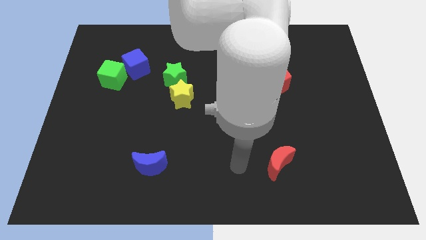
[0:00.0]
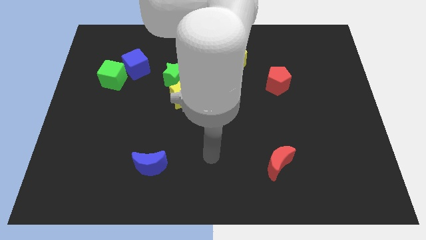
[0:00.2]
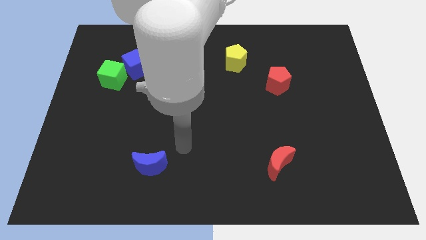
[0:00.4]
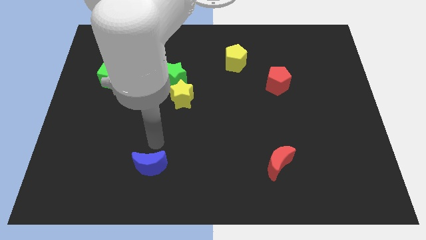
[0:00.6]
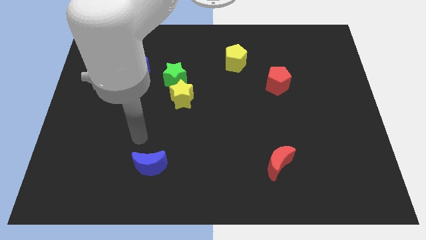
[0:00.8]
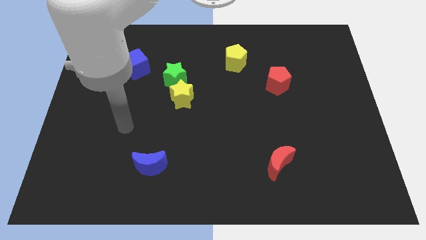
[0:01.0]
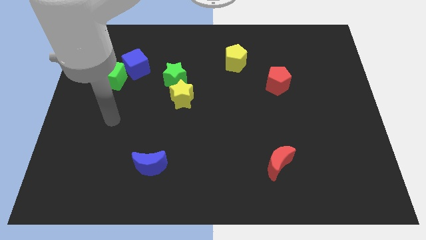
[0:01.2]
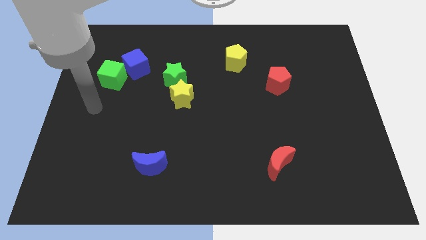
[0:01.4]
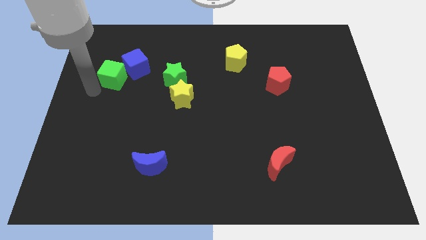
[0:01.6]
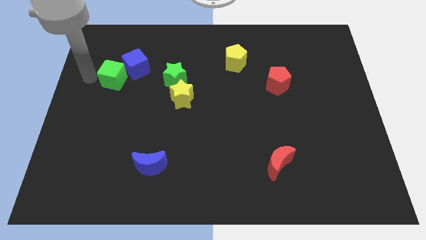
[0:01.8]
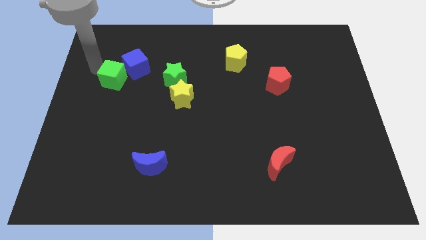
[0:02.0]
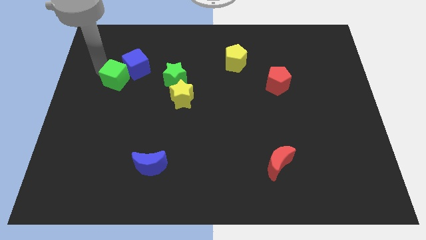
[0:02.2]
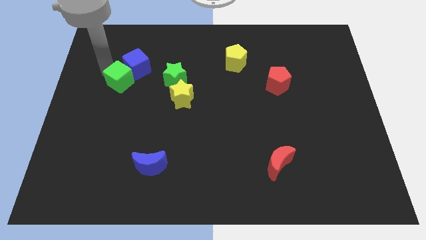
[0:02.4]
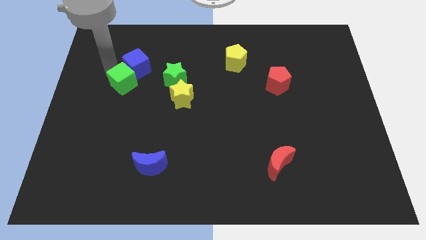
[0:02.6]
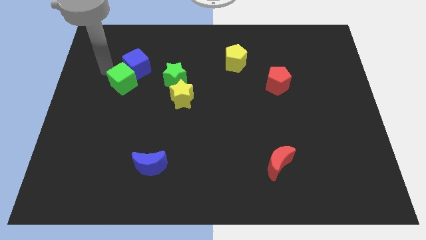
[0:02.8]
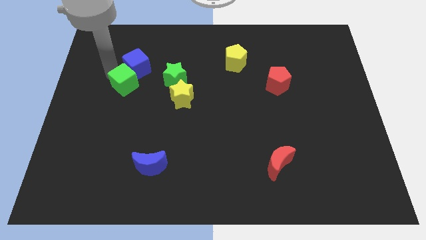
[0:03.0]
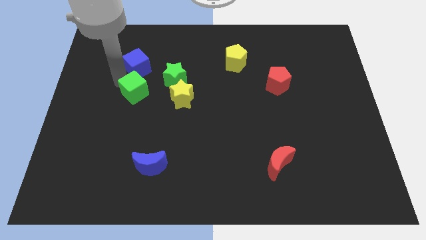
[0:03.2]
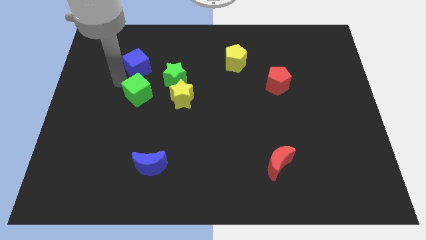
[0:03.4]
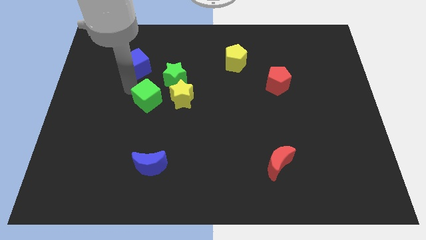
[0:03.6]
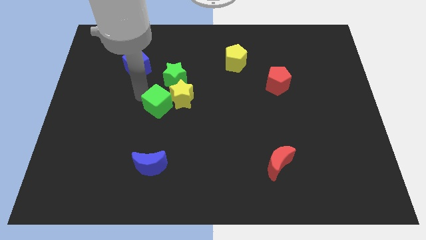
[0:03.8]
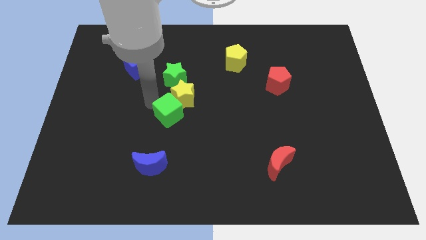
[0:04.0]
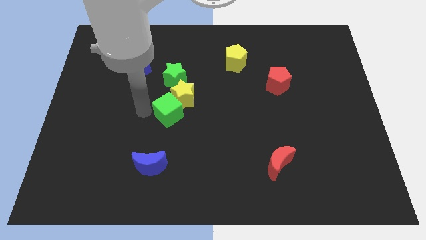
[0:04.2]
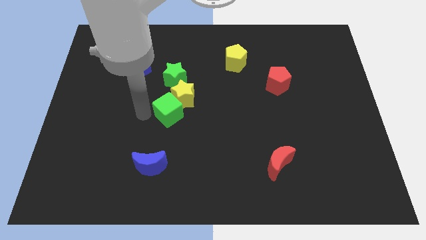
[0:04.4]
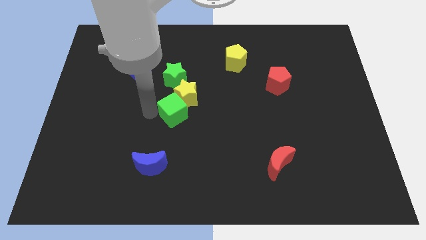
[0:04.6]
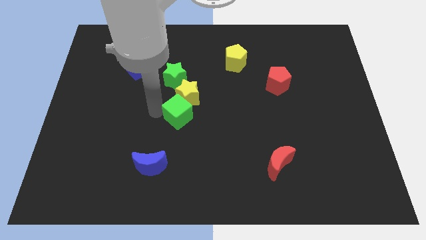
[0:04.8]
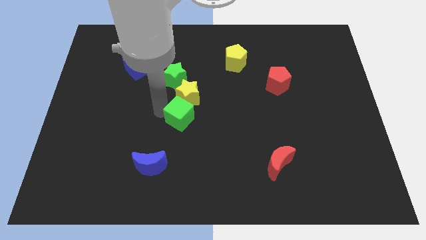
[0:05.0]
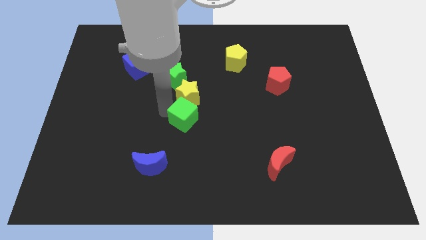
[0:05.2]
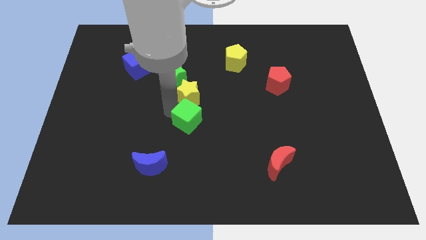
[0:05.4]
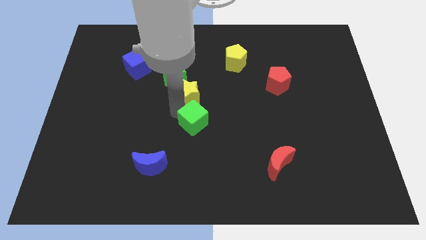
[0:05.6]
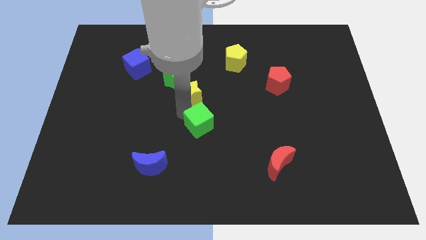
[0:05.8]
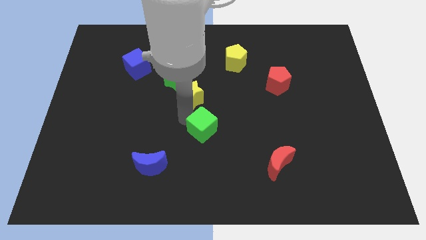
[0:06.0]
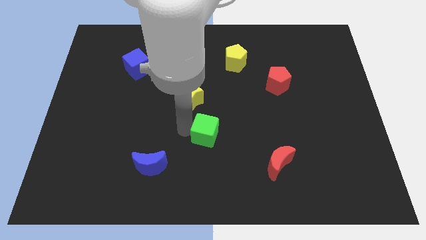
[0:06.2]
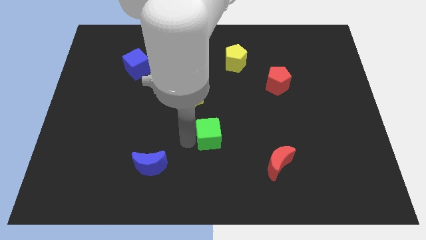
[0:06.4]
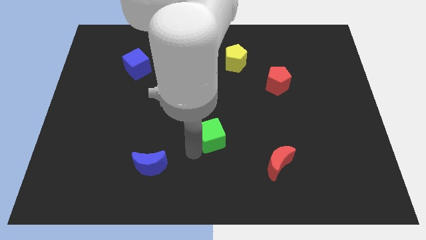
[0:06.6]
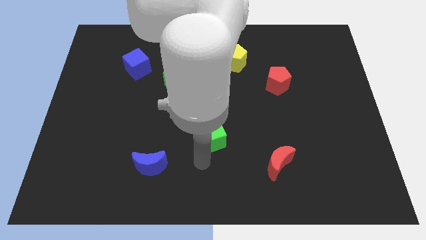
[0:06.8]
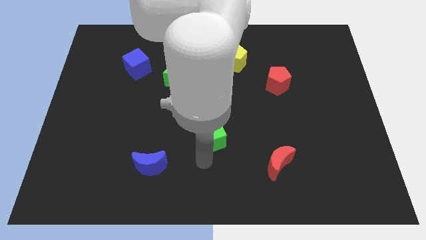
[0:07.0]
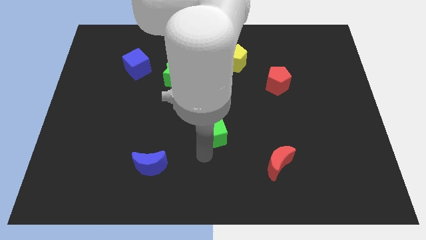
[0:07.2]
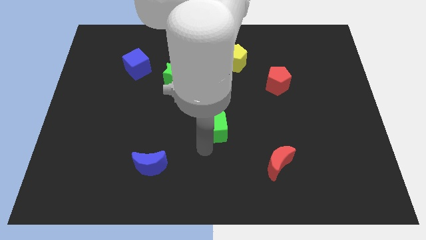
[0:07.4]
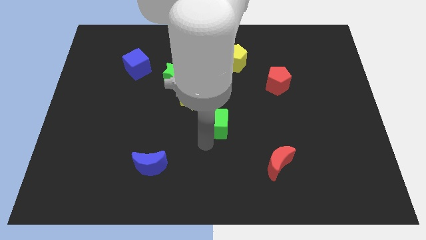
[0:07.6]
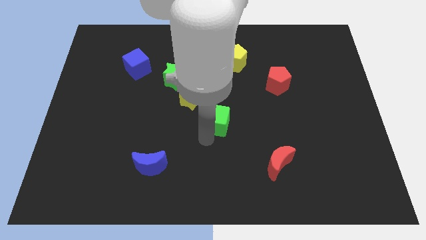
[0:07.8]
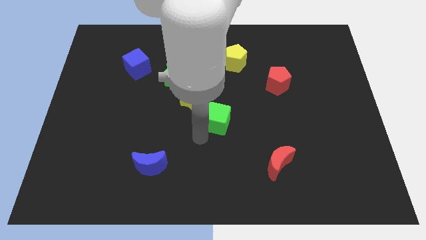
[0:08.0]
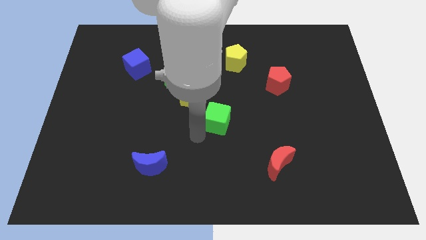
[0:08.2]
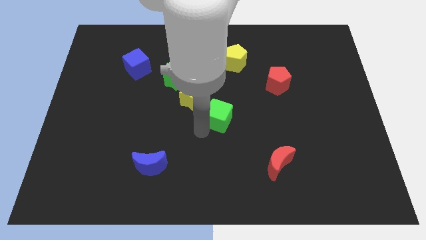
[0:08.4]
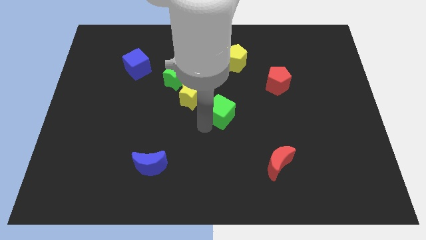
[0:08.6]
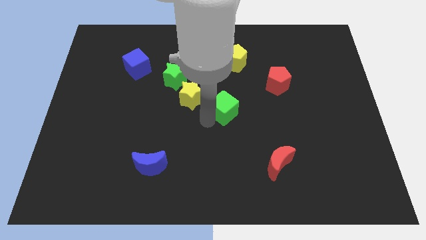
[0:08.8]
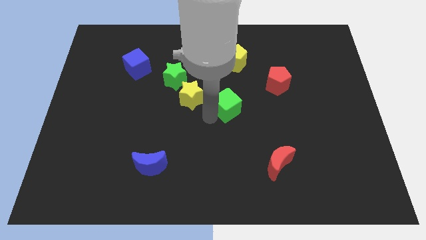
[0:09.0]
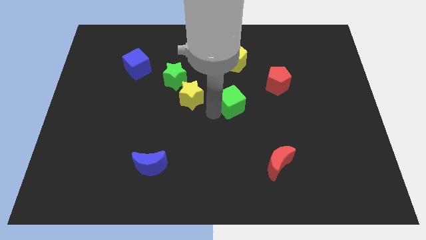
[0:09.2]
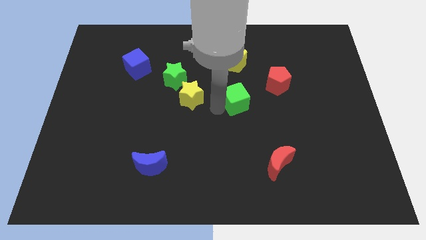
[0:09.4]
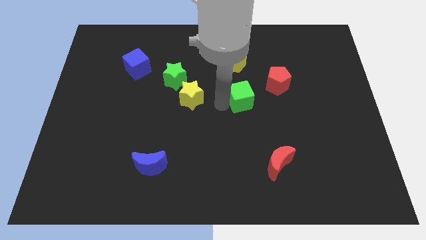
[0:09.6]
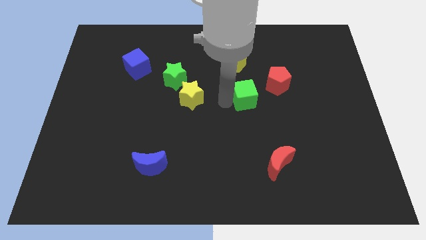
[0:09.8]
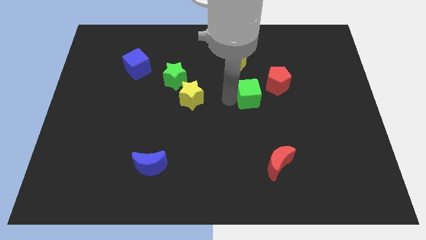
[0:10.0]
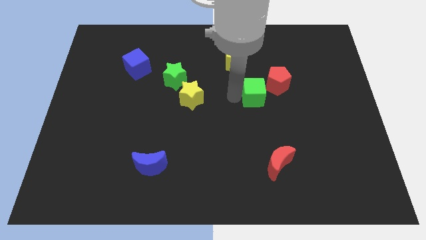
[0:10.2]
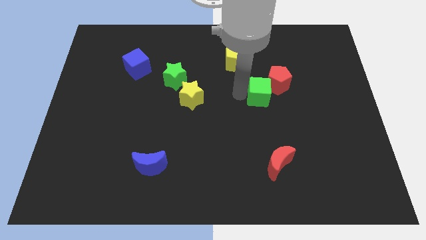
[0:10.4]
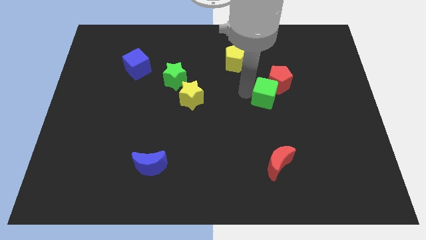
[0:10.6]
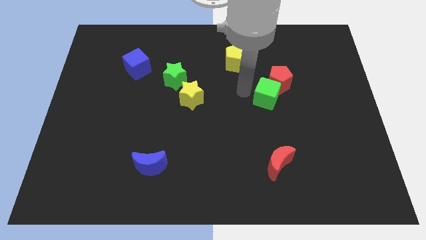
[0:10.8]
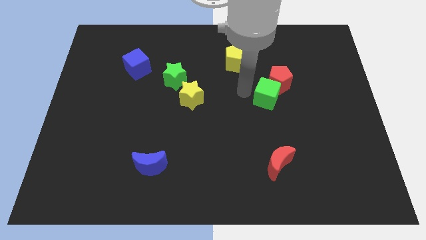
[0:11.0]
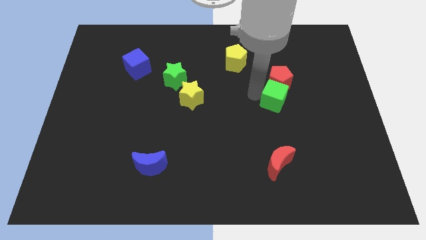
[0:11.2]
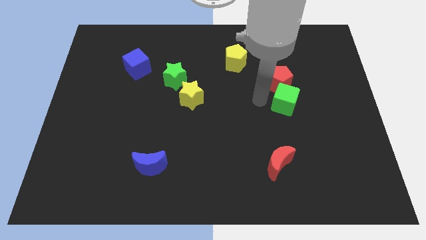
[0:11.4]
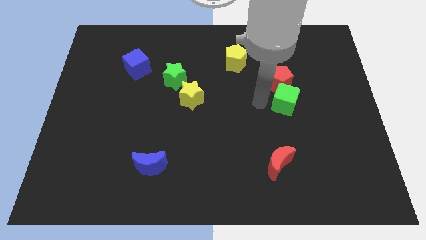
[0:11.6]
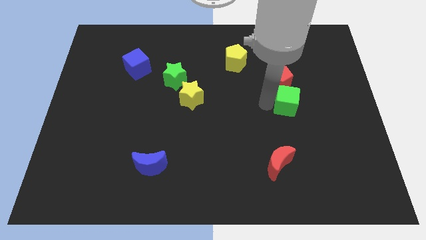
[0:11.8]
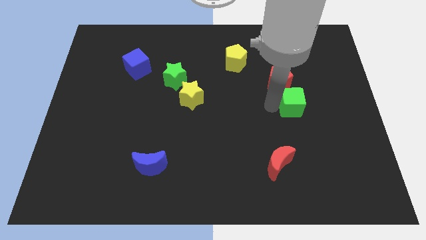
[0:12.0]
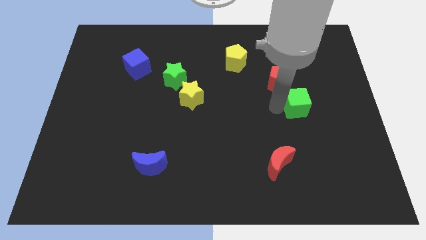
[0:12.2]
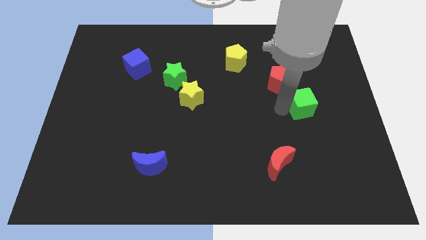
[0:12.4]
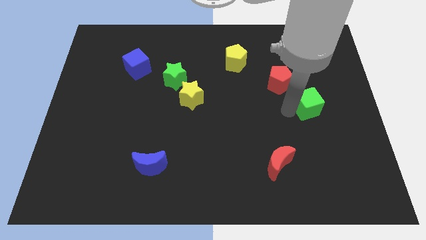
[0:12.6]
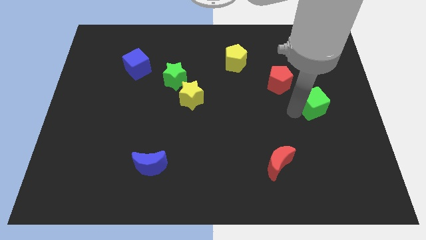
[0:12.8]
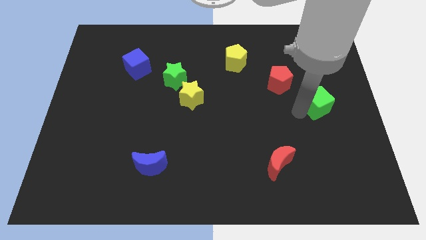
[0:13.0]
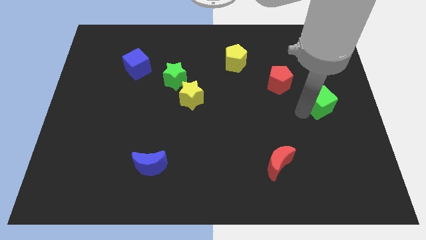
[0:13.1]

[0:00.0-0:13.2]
move the green cube to the right side of the board
